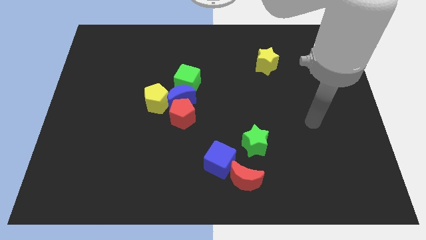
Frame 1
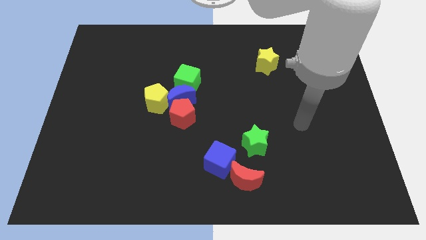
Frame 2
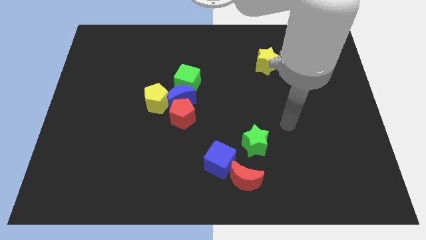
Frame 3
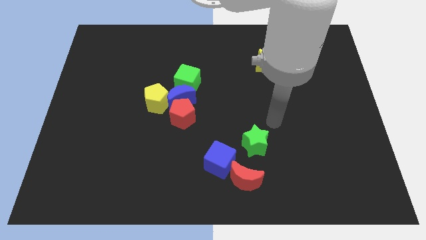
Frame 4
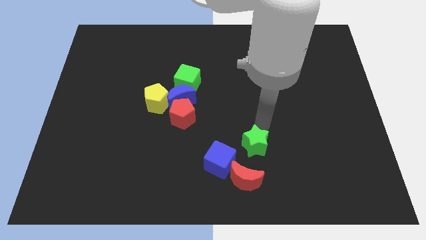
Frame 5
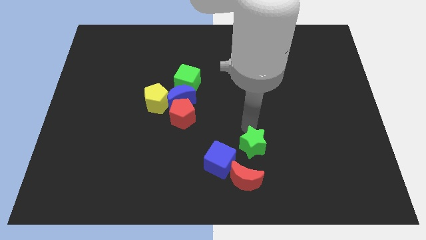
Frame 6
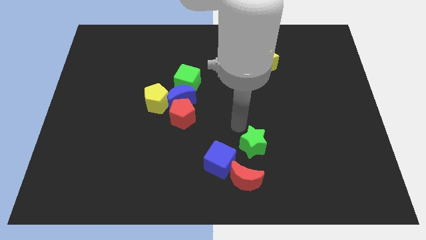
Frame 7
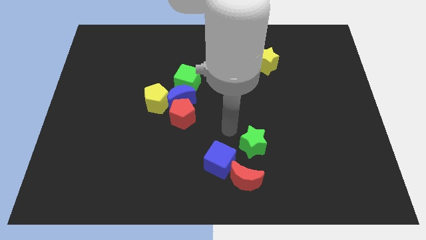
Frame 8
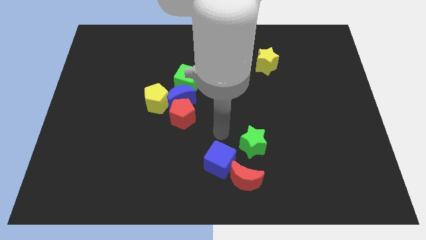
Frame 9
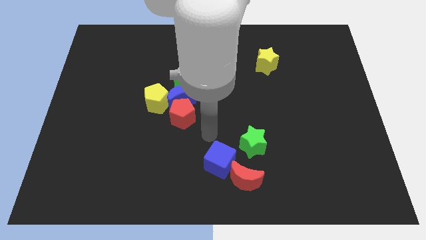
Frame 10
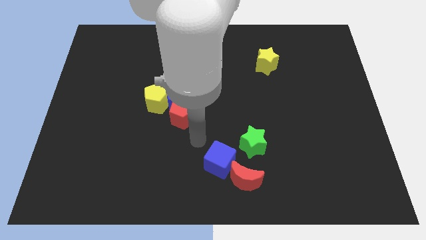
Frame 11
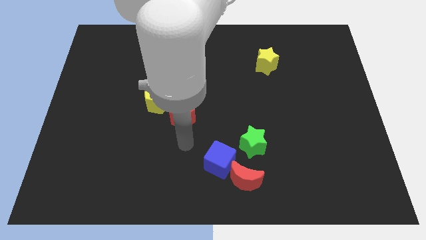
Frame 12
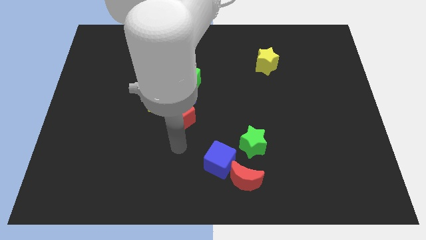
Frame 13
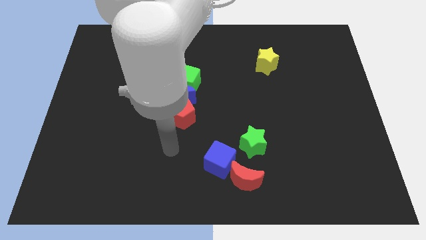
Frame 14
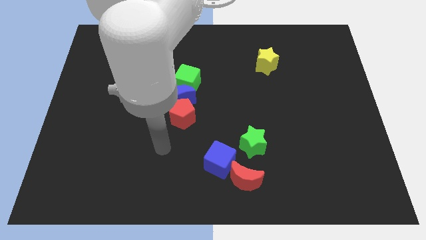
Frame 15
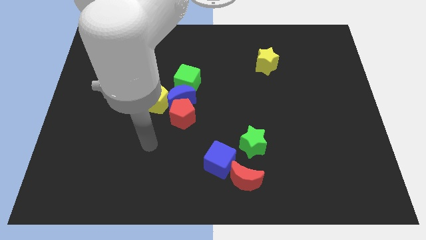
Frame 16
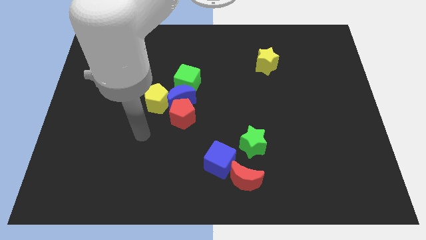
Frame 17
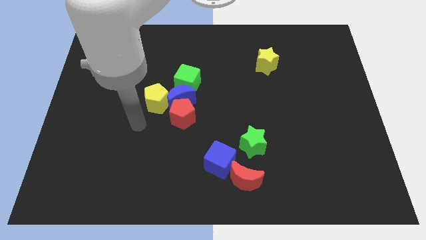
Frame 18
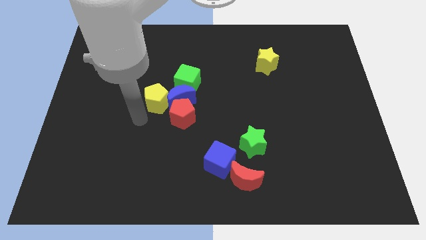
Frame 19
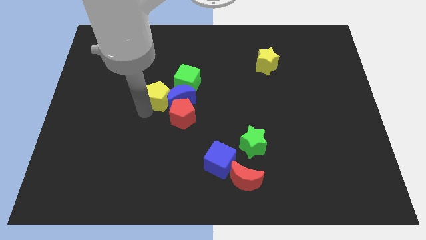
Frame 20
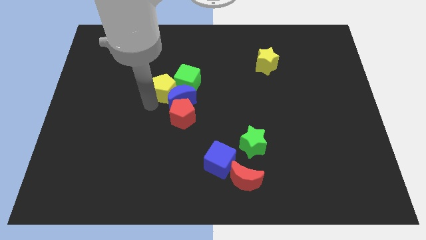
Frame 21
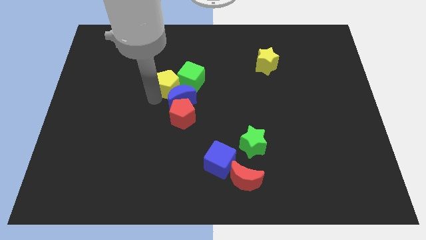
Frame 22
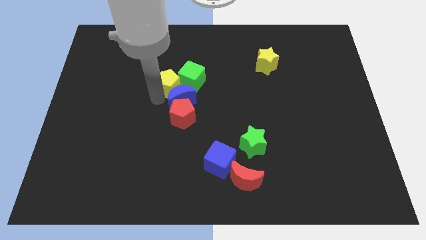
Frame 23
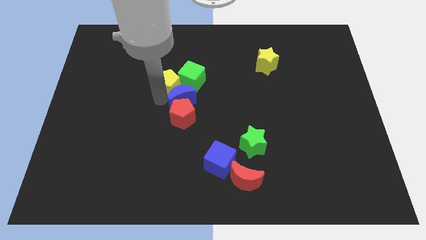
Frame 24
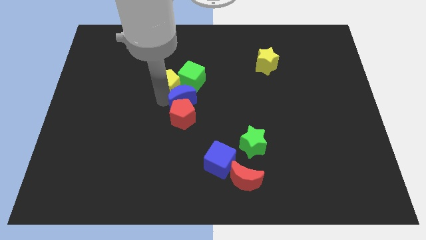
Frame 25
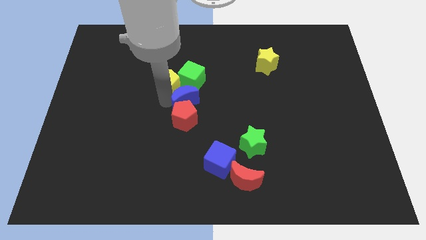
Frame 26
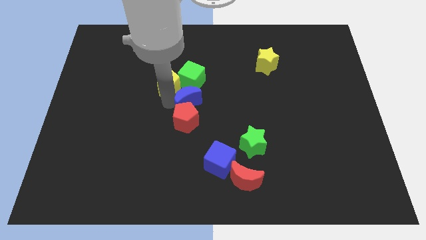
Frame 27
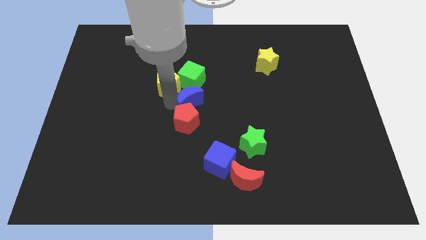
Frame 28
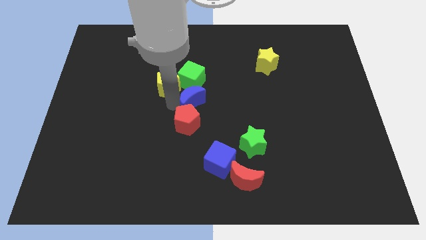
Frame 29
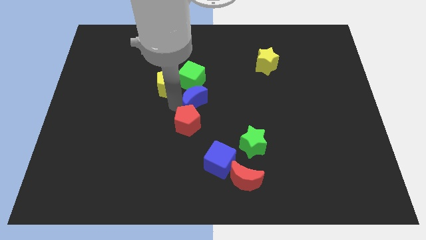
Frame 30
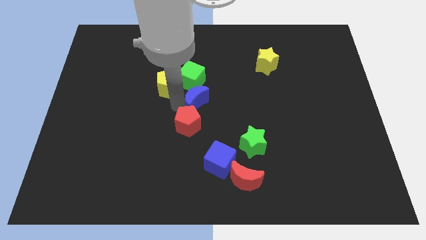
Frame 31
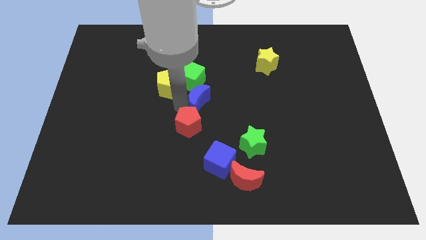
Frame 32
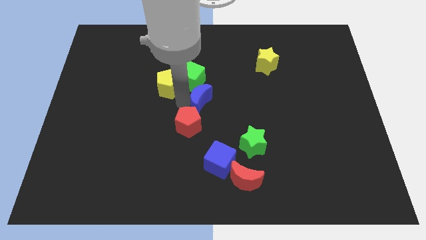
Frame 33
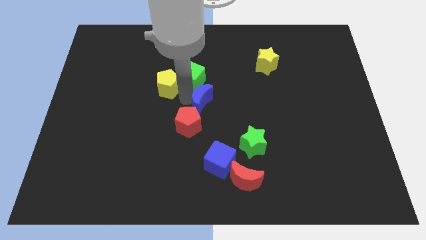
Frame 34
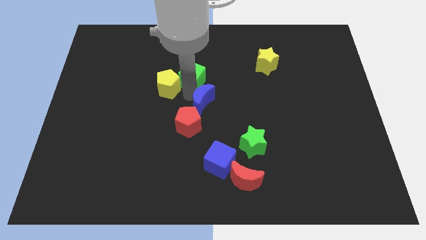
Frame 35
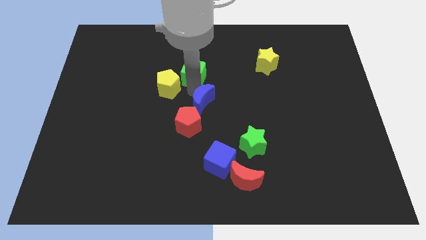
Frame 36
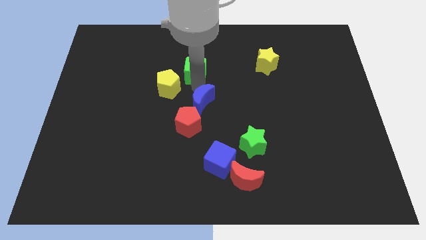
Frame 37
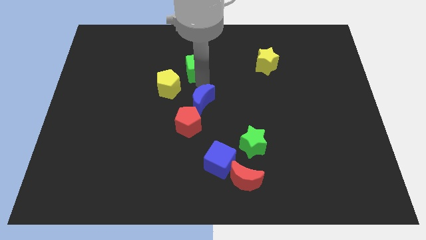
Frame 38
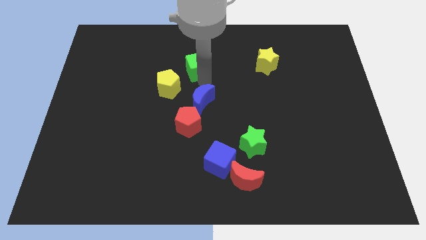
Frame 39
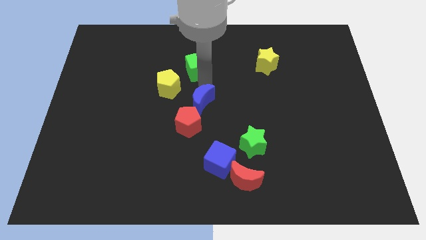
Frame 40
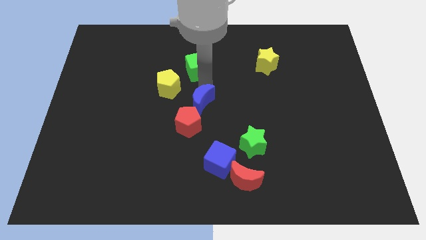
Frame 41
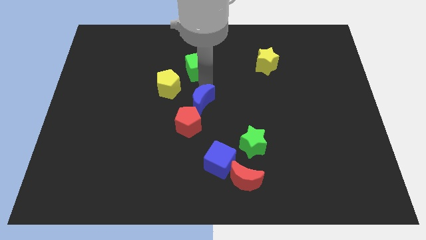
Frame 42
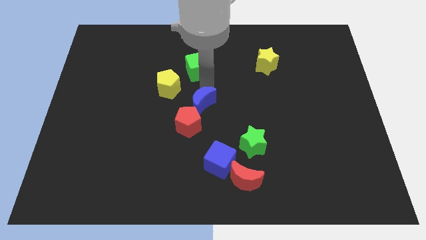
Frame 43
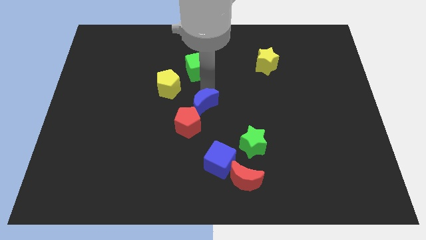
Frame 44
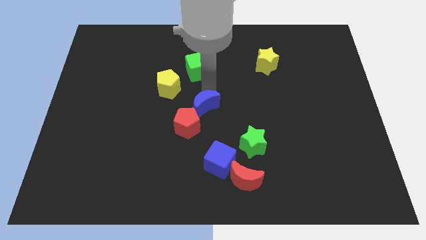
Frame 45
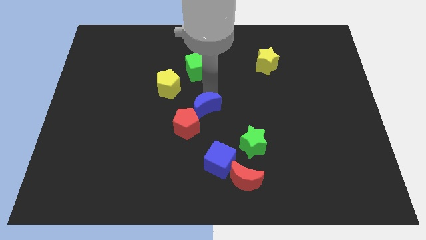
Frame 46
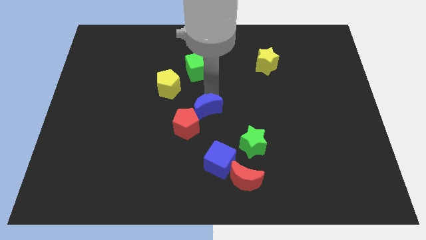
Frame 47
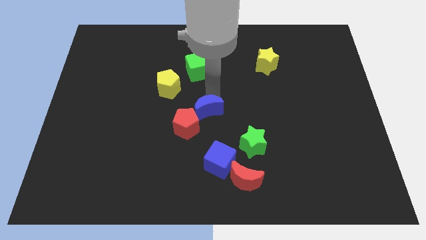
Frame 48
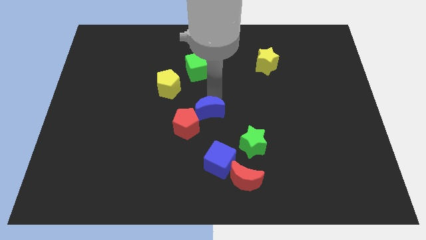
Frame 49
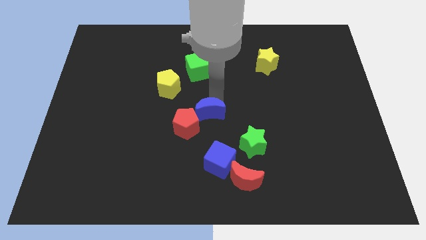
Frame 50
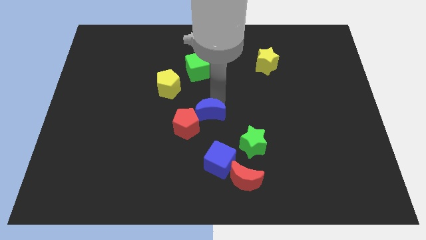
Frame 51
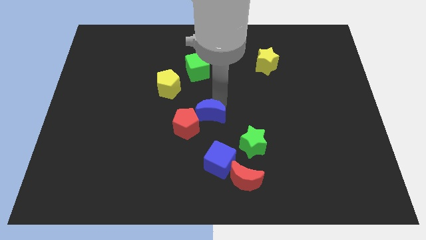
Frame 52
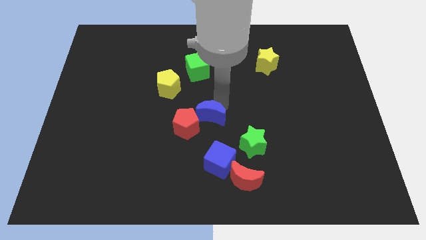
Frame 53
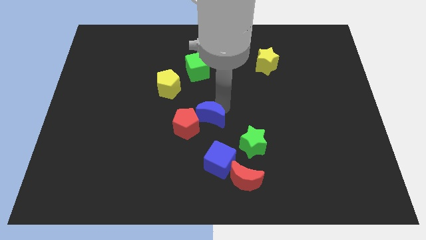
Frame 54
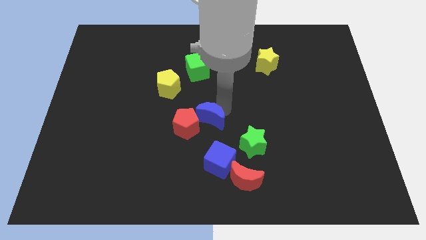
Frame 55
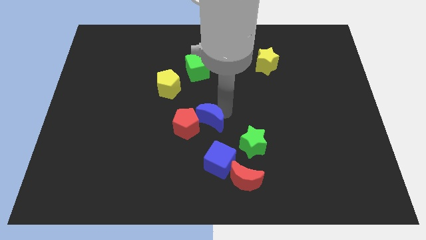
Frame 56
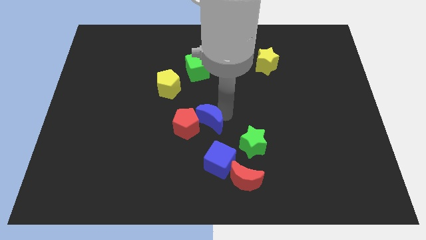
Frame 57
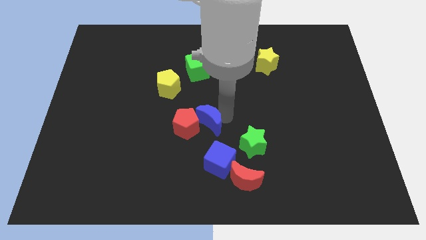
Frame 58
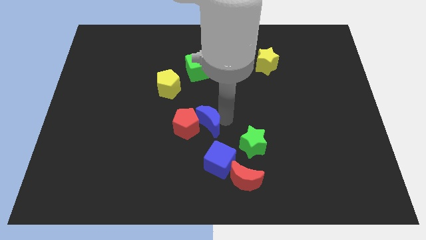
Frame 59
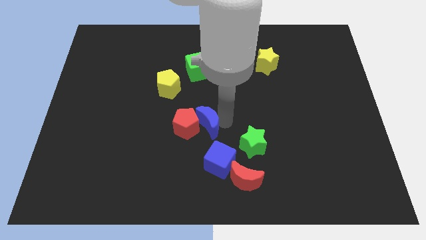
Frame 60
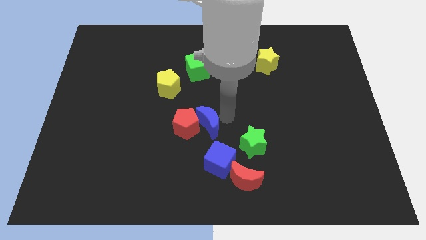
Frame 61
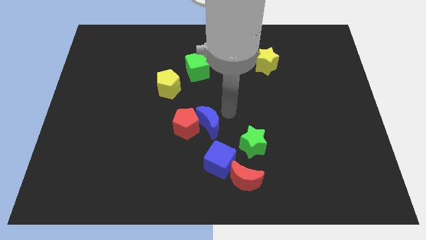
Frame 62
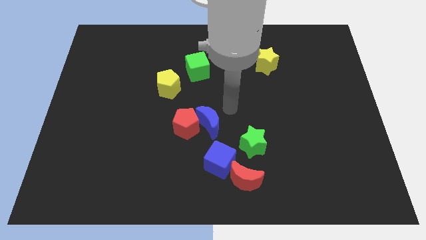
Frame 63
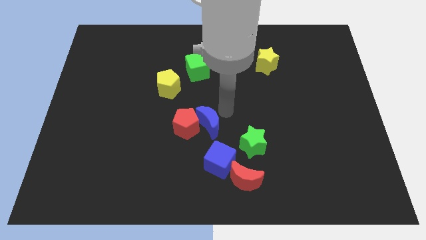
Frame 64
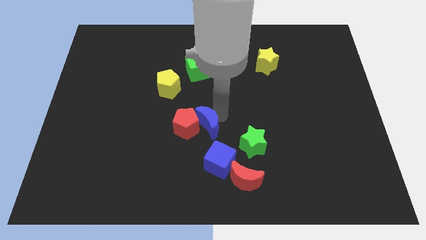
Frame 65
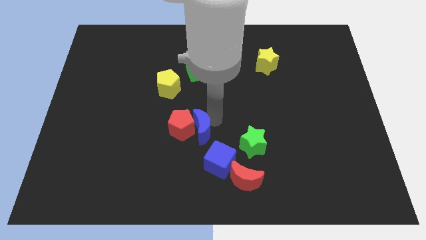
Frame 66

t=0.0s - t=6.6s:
push the blue moon downwards somewhat

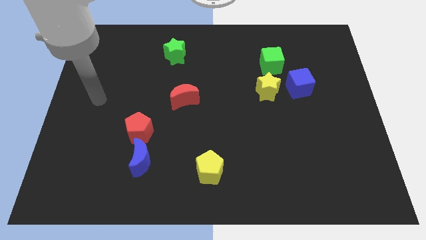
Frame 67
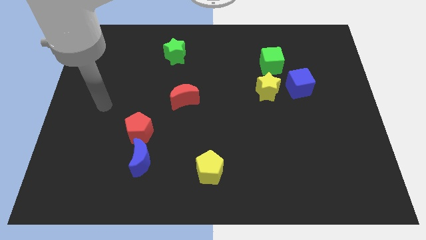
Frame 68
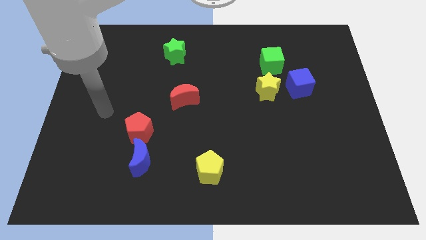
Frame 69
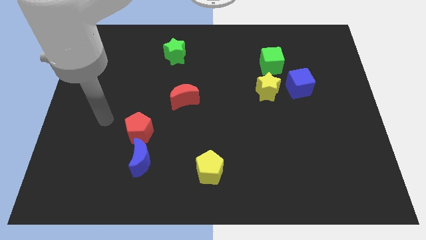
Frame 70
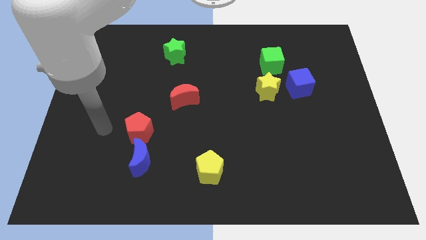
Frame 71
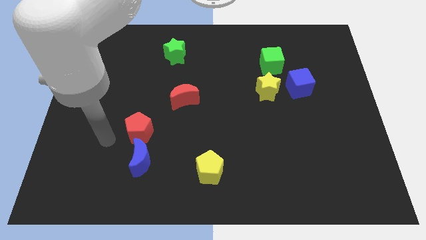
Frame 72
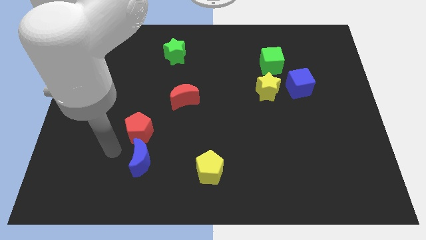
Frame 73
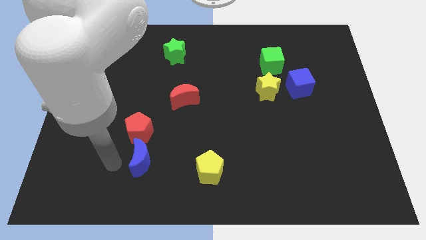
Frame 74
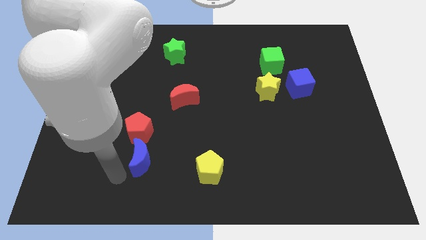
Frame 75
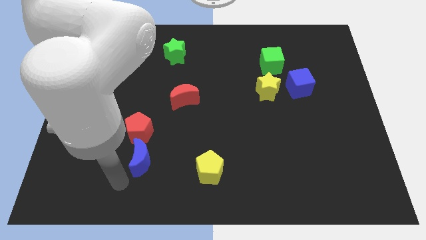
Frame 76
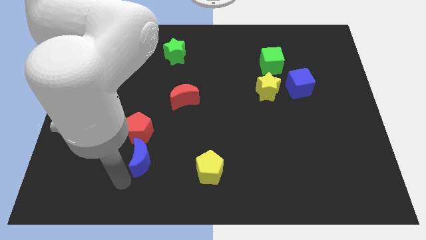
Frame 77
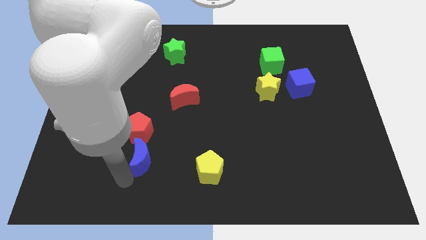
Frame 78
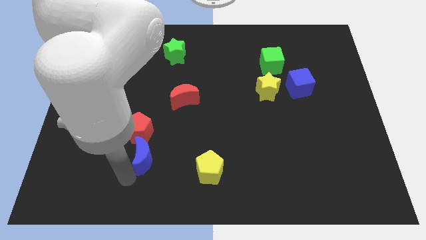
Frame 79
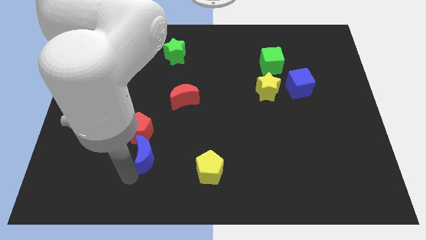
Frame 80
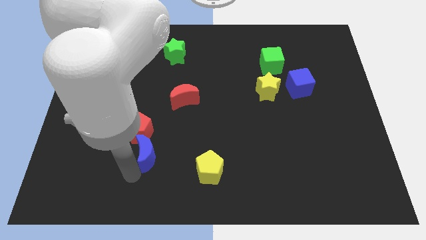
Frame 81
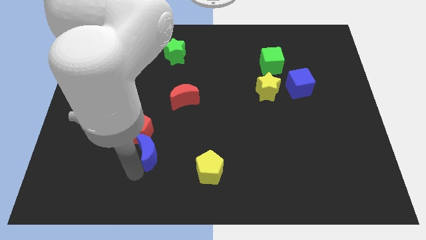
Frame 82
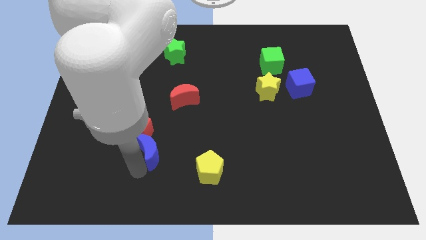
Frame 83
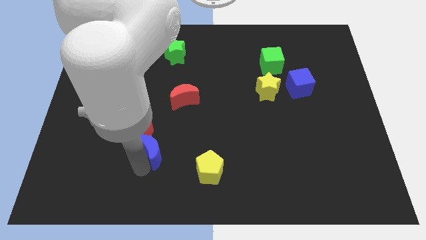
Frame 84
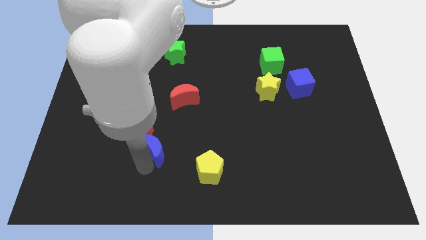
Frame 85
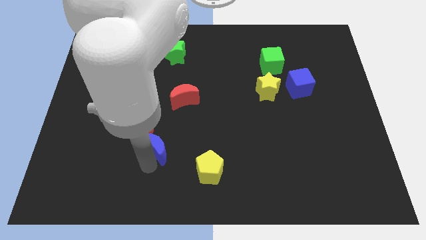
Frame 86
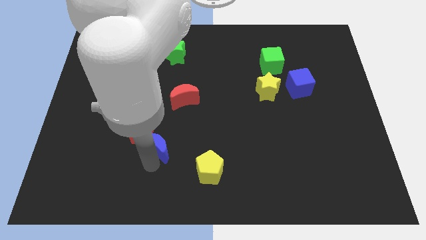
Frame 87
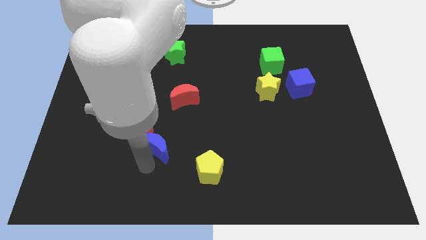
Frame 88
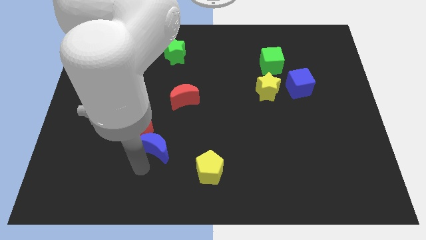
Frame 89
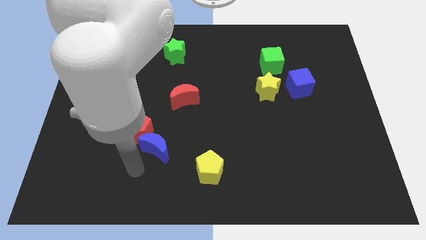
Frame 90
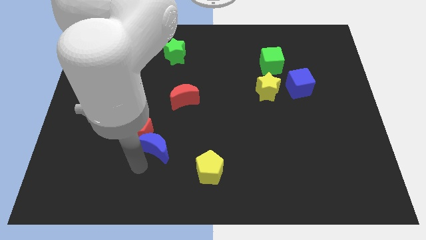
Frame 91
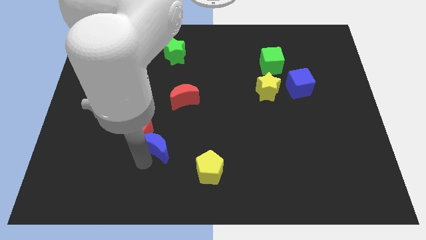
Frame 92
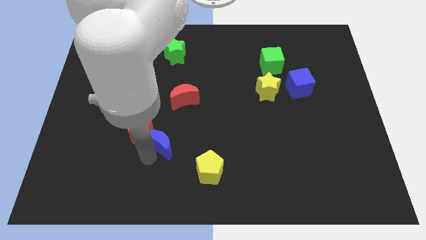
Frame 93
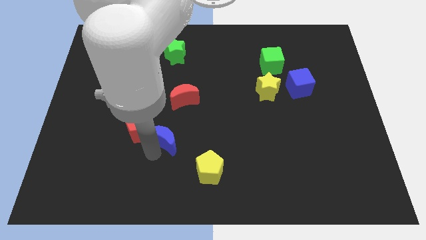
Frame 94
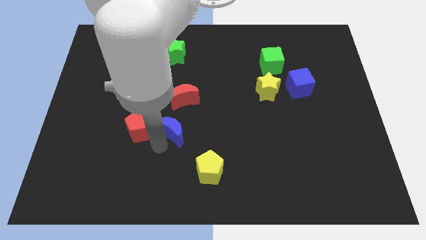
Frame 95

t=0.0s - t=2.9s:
push the blue moon up and to the right somewhat
